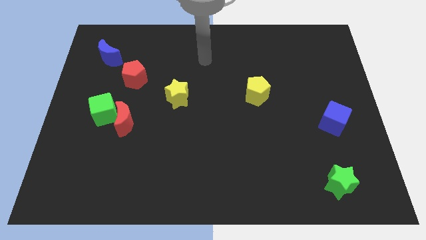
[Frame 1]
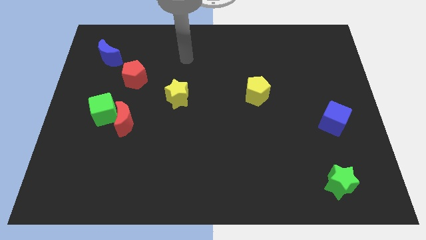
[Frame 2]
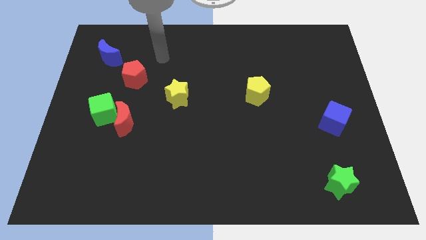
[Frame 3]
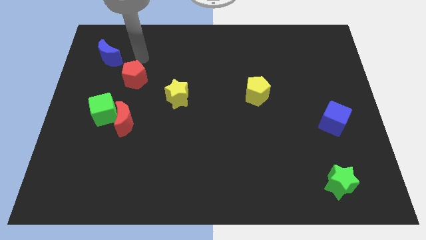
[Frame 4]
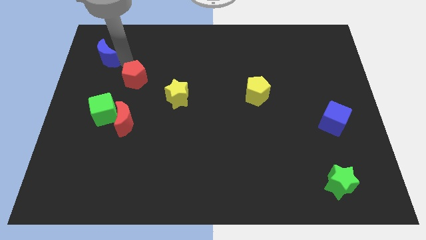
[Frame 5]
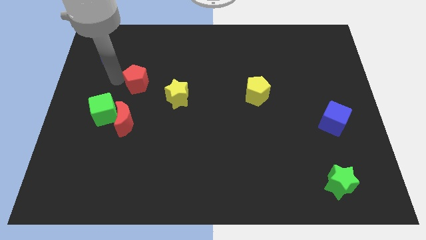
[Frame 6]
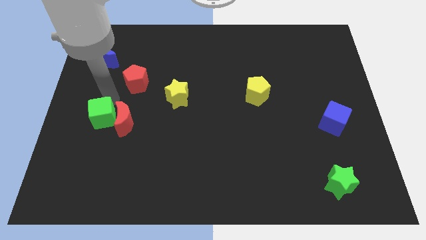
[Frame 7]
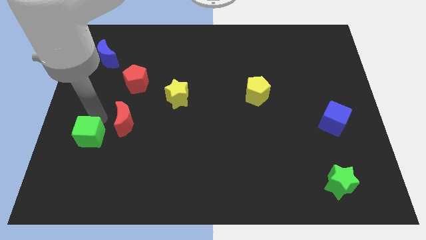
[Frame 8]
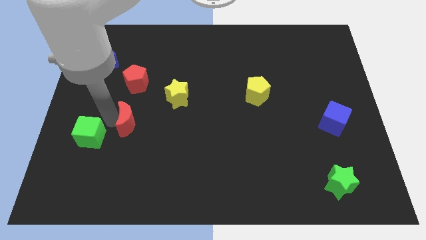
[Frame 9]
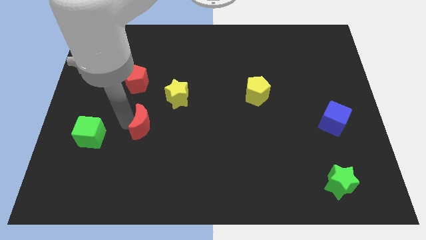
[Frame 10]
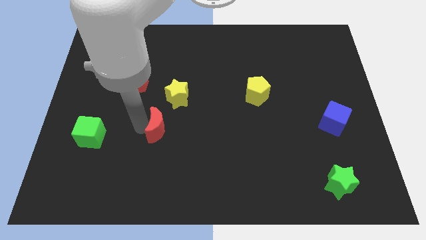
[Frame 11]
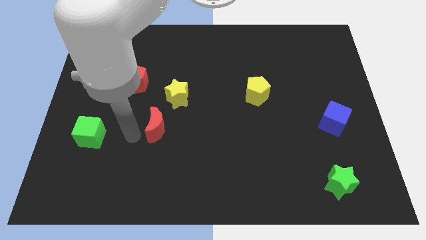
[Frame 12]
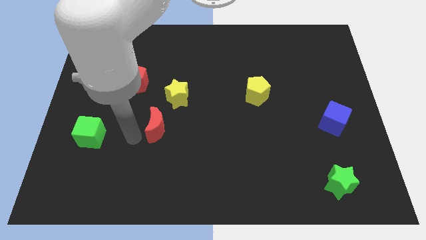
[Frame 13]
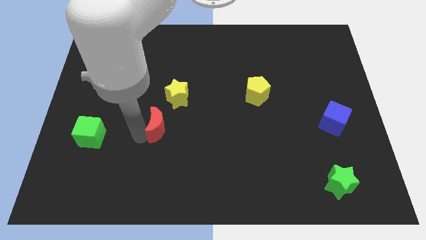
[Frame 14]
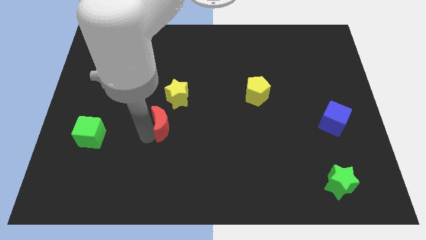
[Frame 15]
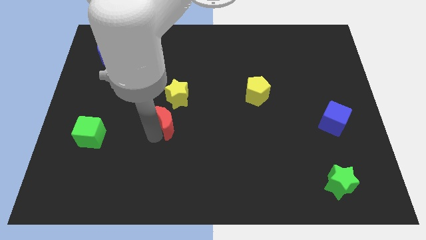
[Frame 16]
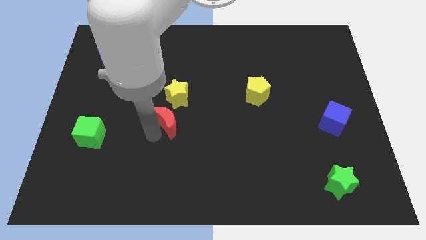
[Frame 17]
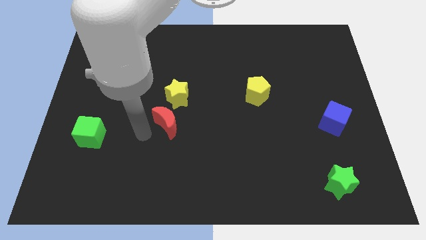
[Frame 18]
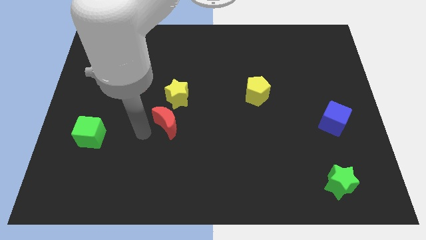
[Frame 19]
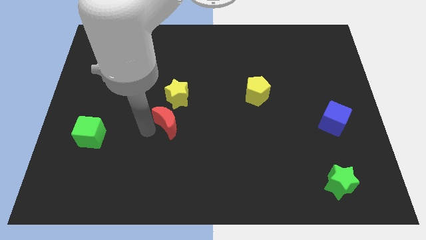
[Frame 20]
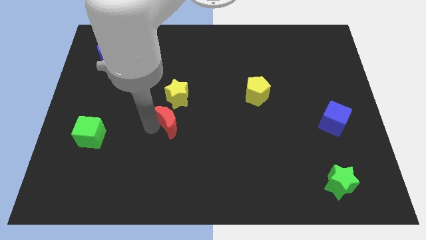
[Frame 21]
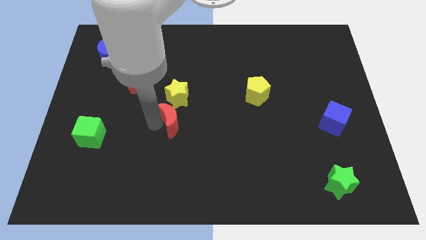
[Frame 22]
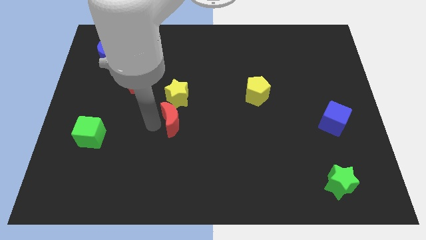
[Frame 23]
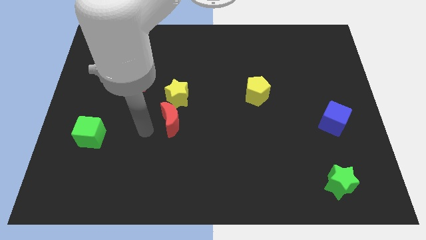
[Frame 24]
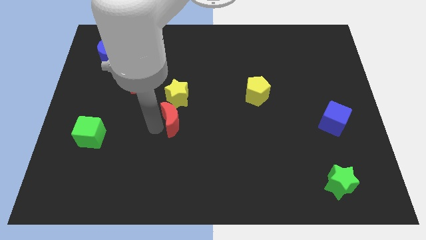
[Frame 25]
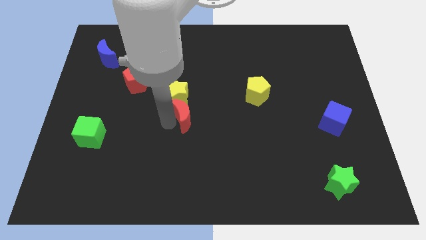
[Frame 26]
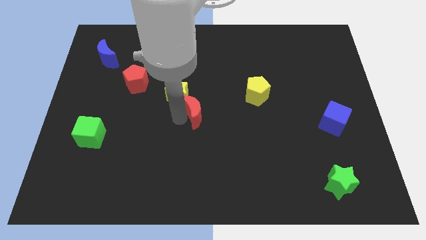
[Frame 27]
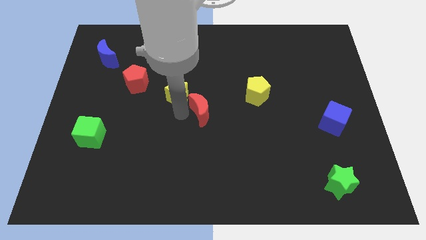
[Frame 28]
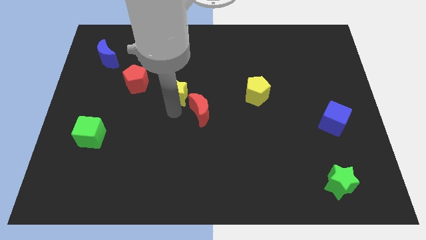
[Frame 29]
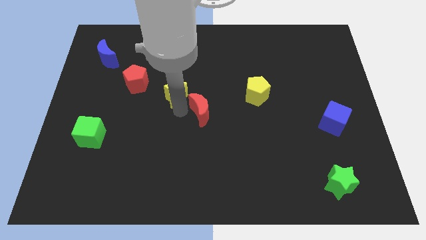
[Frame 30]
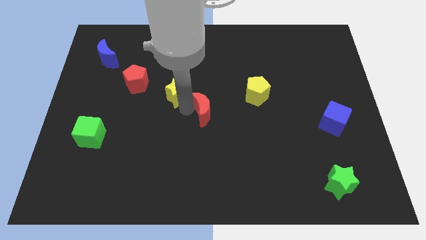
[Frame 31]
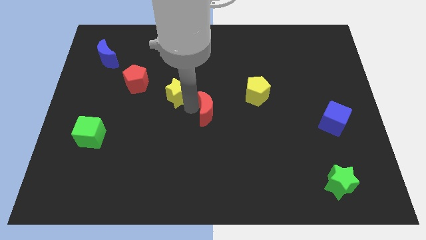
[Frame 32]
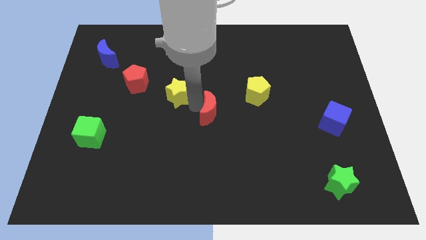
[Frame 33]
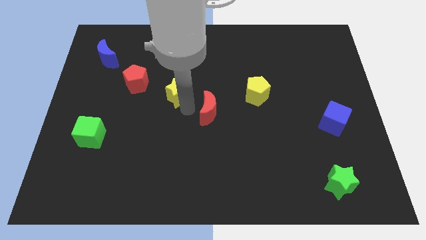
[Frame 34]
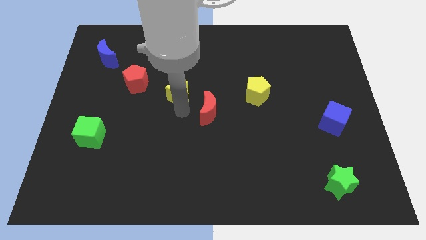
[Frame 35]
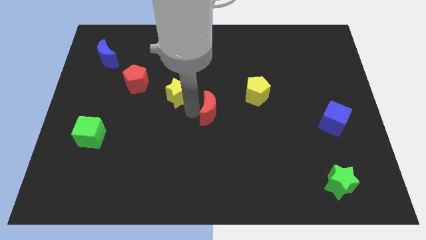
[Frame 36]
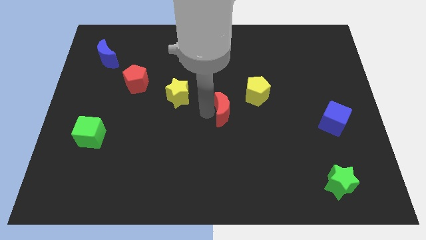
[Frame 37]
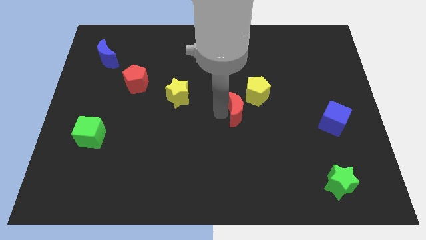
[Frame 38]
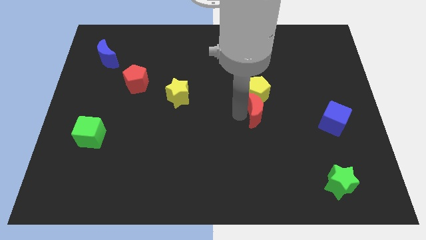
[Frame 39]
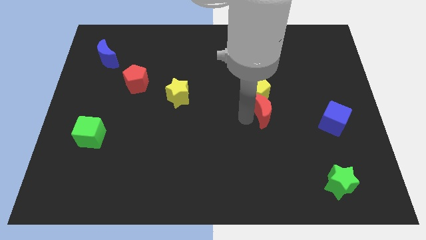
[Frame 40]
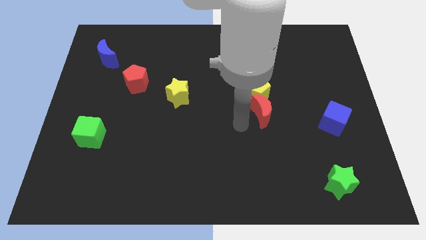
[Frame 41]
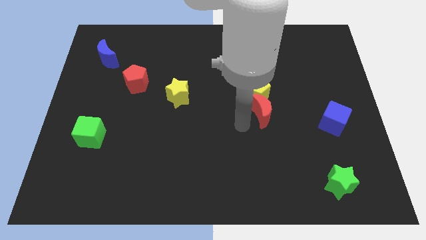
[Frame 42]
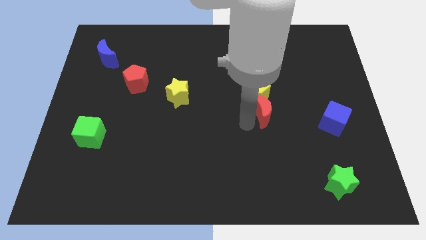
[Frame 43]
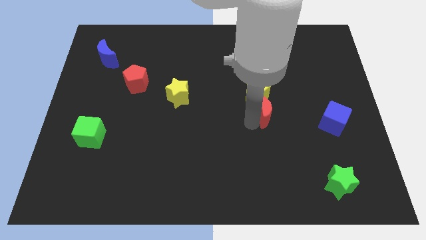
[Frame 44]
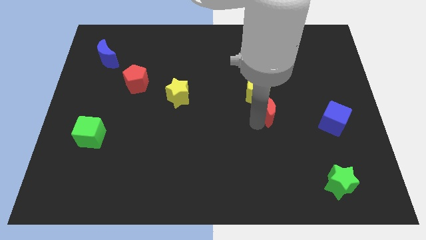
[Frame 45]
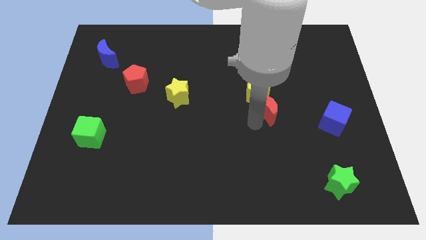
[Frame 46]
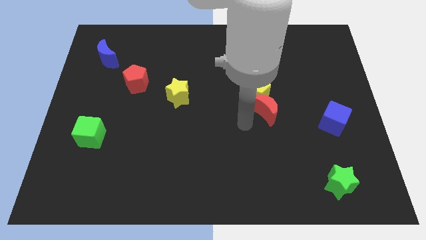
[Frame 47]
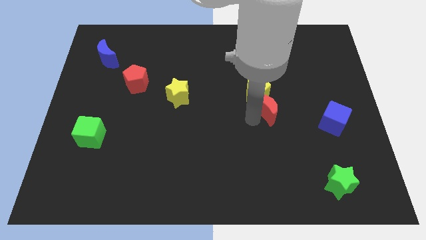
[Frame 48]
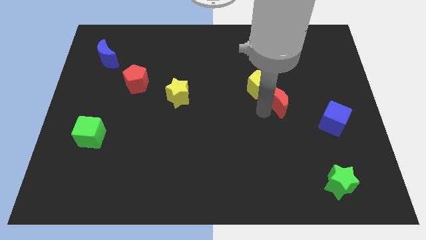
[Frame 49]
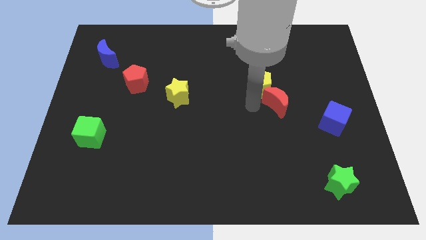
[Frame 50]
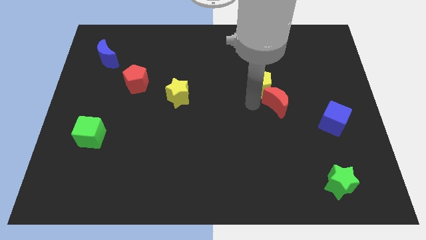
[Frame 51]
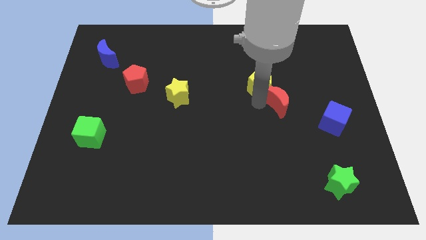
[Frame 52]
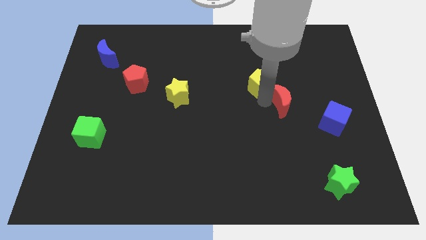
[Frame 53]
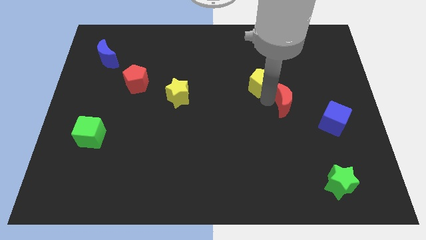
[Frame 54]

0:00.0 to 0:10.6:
slide the red moon to the top left of the blue cube

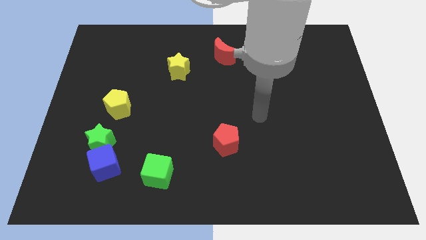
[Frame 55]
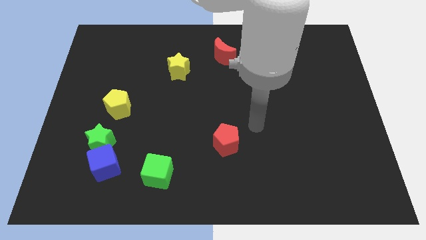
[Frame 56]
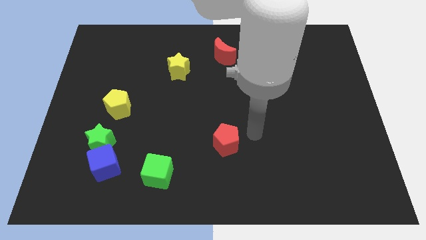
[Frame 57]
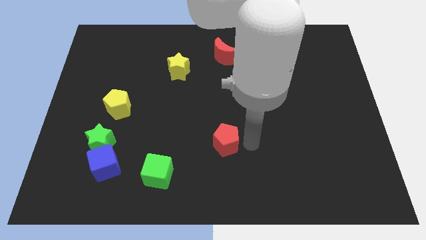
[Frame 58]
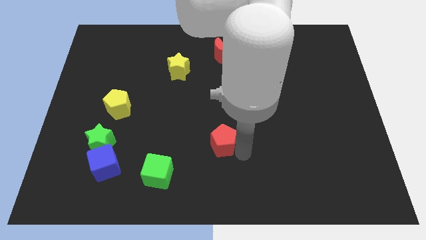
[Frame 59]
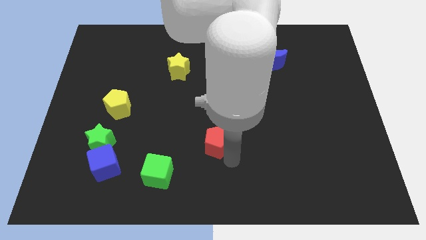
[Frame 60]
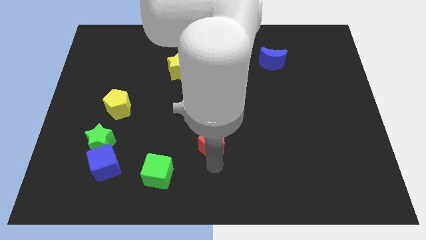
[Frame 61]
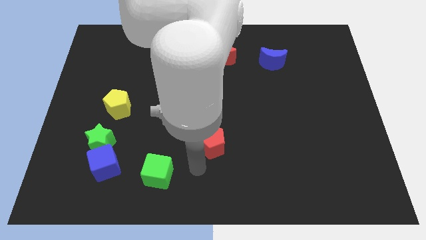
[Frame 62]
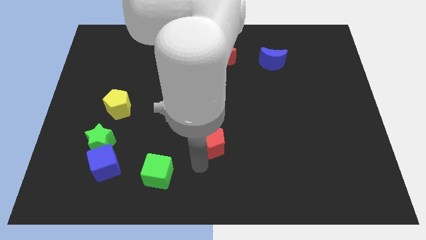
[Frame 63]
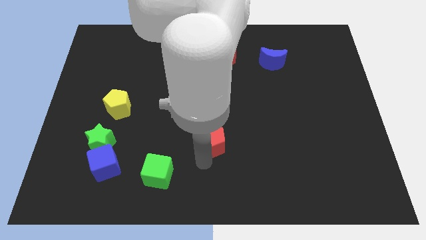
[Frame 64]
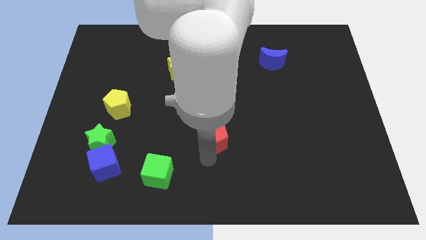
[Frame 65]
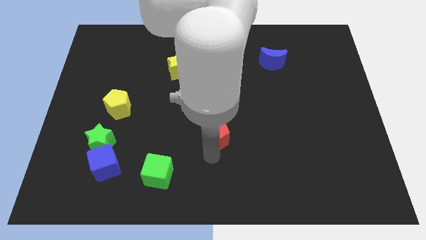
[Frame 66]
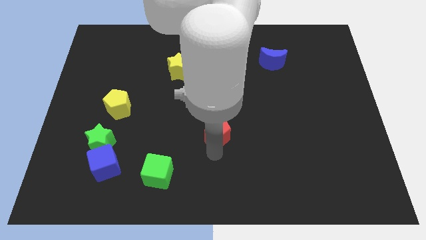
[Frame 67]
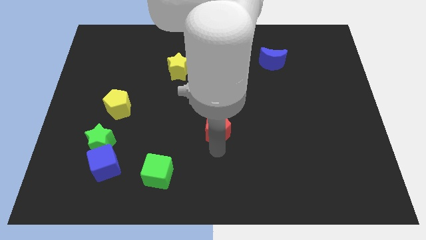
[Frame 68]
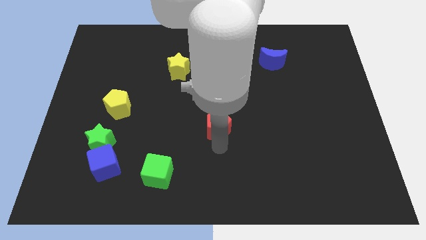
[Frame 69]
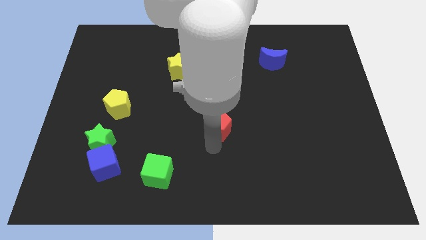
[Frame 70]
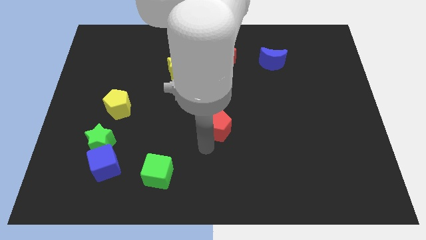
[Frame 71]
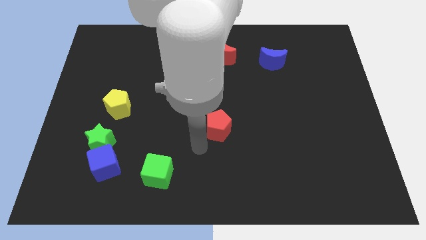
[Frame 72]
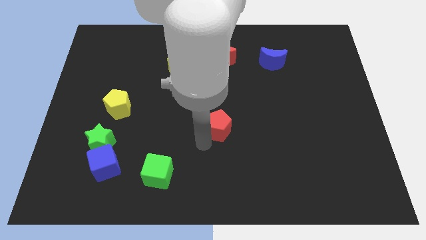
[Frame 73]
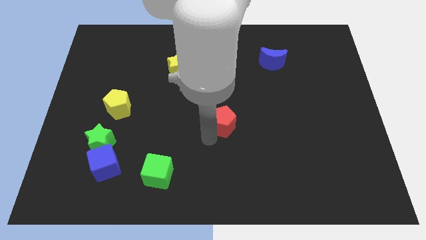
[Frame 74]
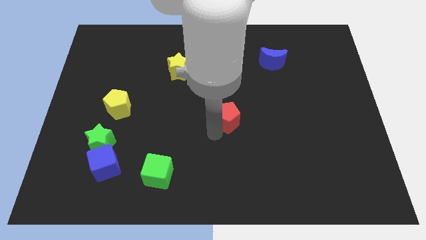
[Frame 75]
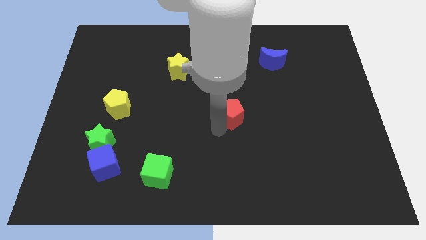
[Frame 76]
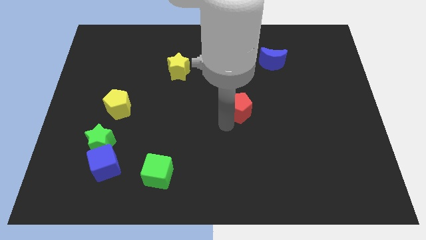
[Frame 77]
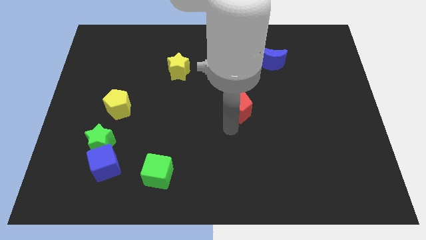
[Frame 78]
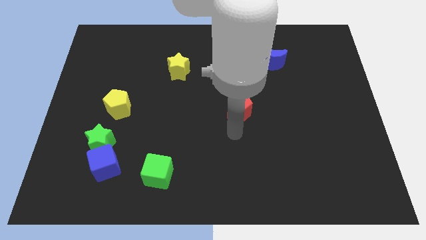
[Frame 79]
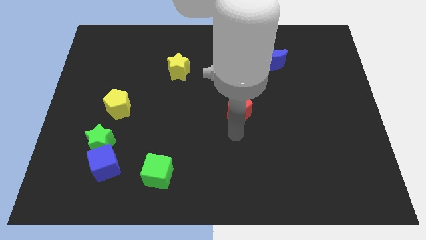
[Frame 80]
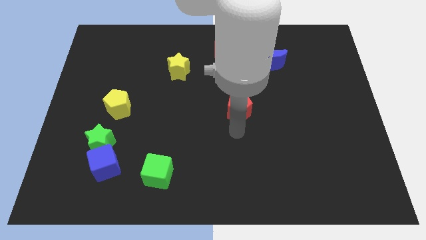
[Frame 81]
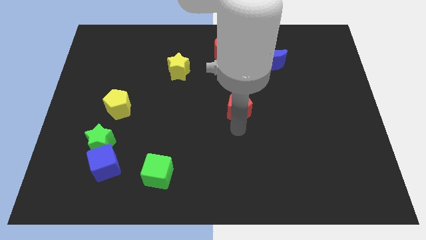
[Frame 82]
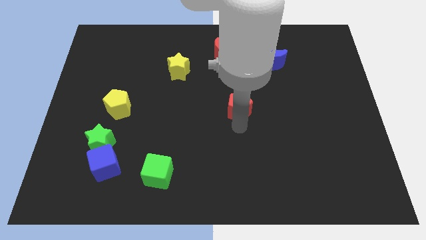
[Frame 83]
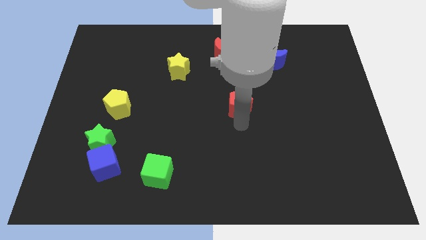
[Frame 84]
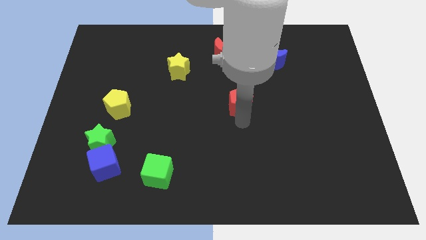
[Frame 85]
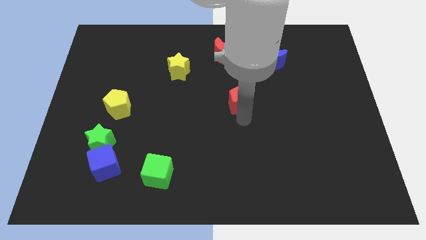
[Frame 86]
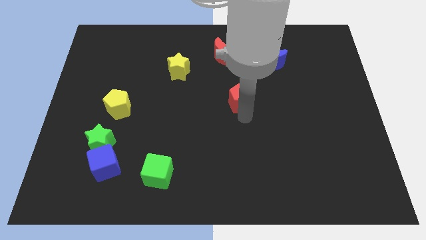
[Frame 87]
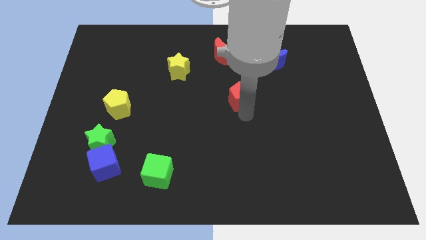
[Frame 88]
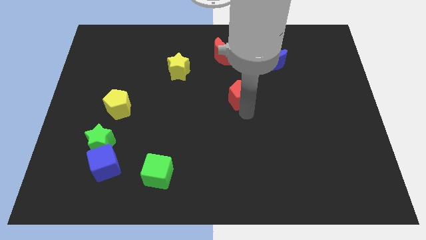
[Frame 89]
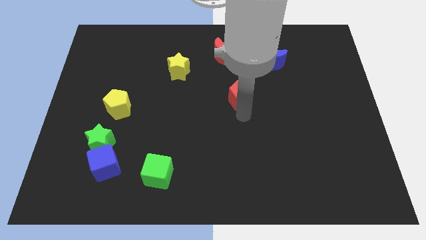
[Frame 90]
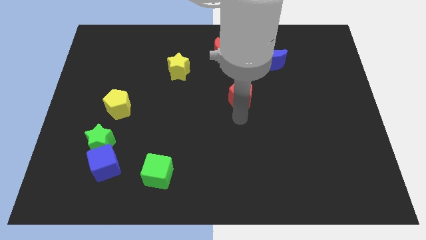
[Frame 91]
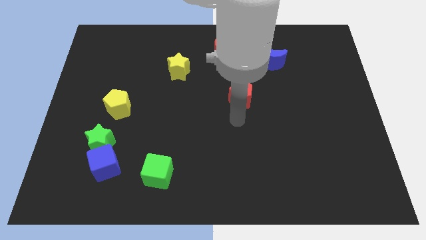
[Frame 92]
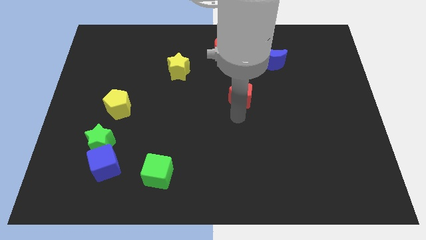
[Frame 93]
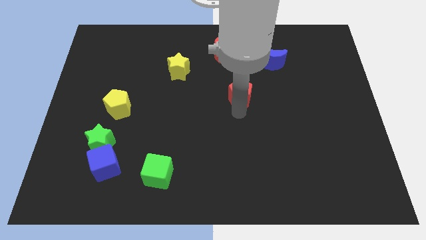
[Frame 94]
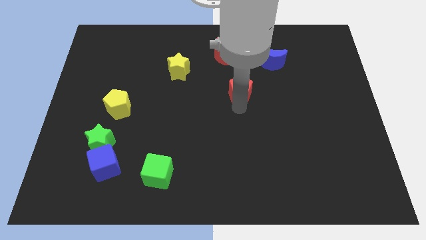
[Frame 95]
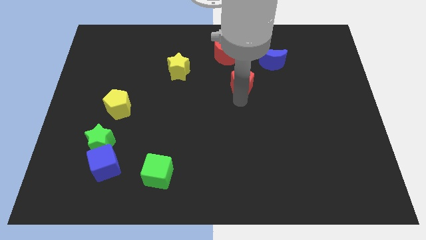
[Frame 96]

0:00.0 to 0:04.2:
push the red pentagon diagonally down and to the right of the red moon
